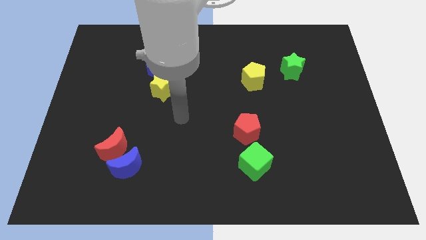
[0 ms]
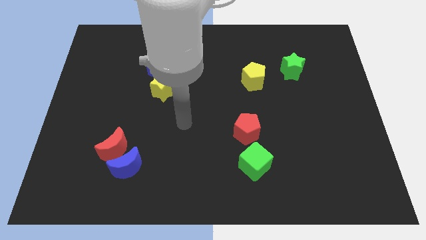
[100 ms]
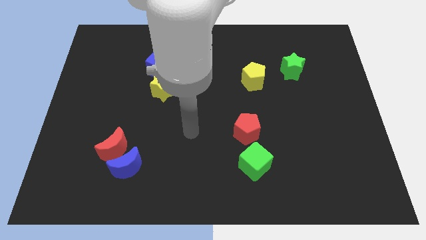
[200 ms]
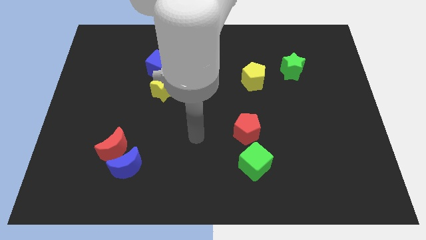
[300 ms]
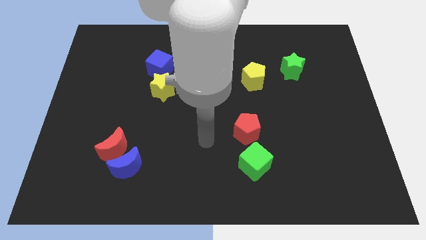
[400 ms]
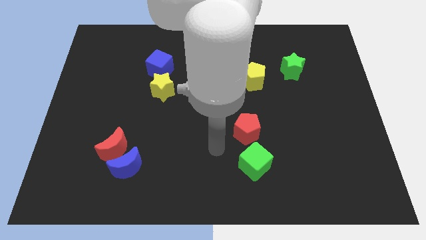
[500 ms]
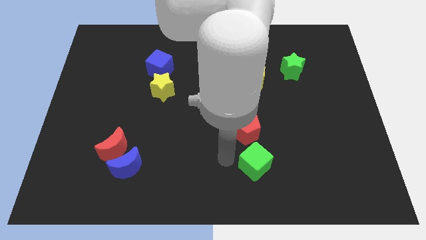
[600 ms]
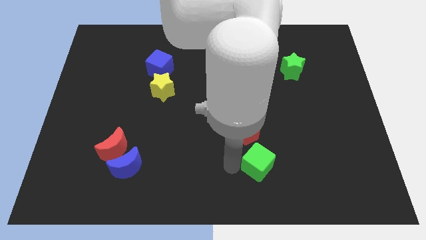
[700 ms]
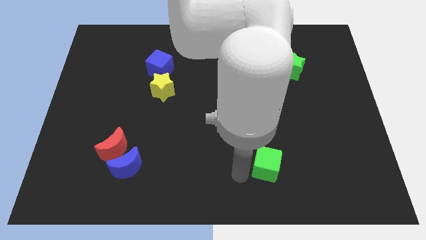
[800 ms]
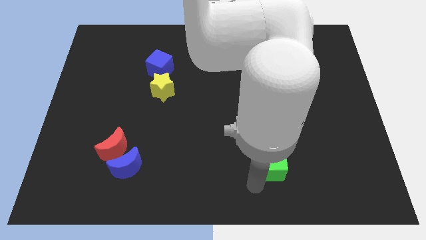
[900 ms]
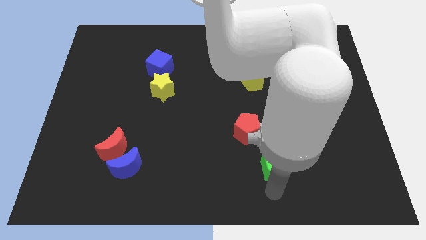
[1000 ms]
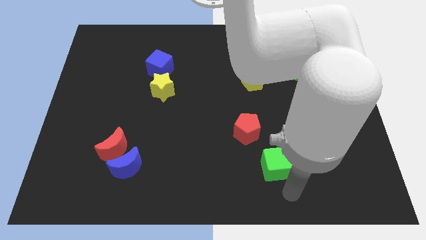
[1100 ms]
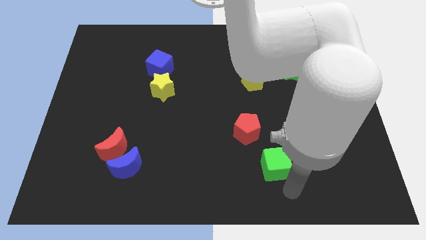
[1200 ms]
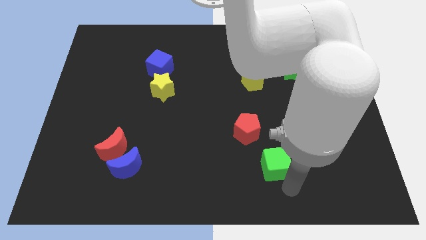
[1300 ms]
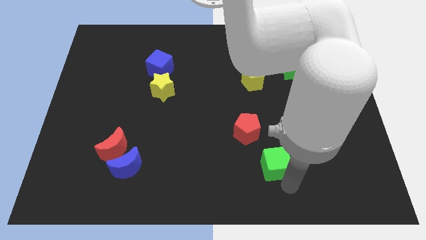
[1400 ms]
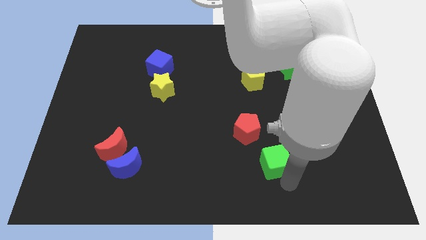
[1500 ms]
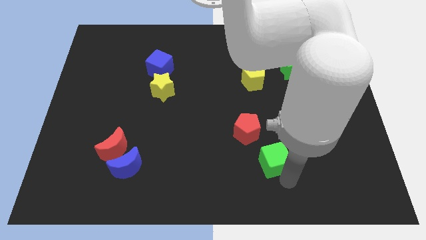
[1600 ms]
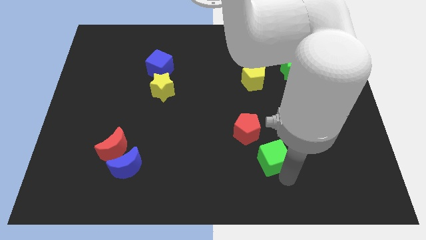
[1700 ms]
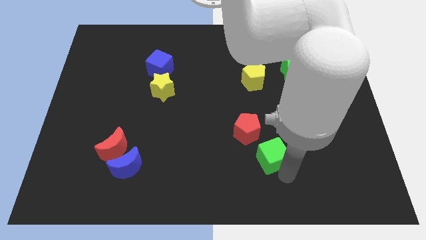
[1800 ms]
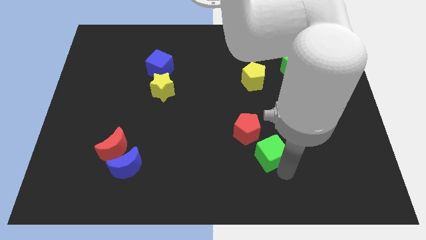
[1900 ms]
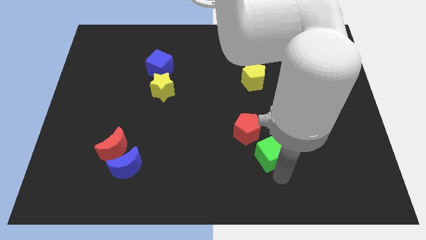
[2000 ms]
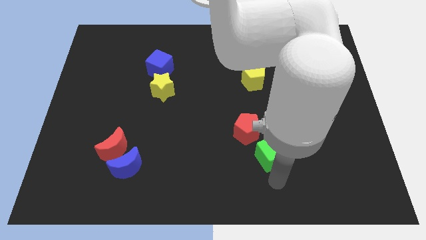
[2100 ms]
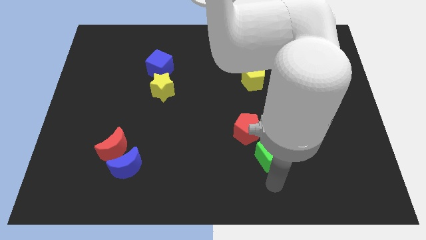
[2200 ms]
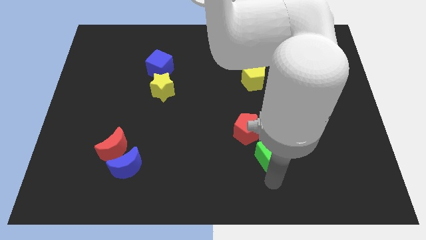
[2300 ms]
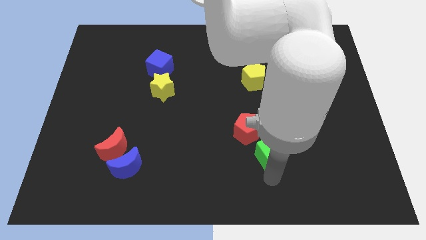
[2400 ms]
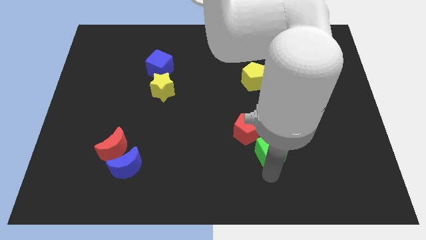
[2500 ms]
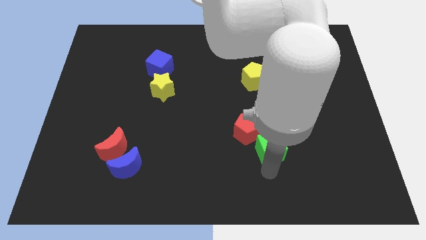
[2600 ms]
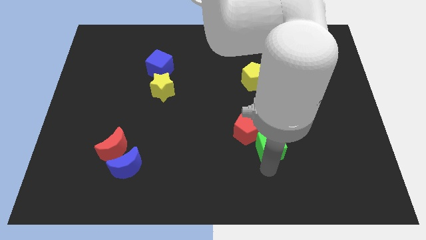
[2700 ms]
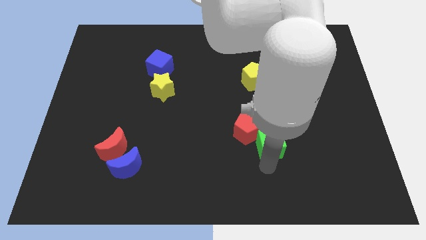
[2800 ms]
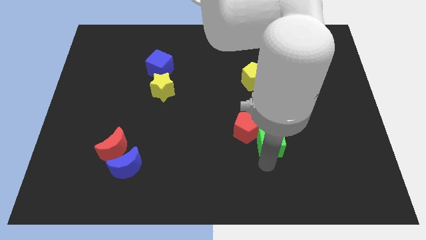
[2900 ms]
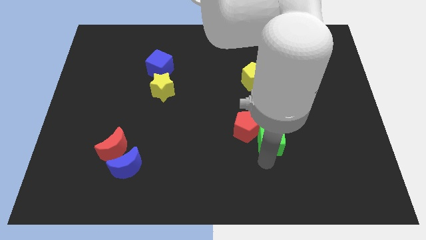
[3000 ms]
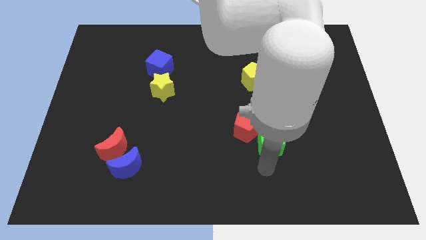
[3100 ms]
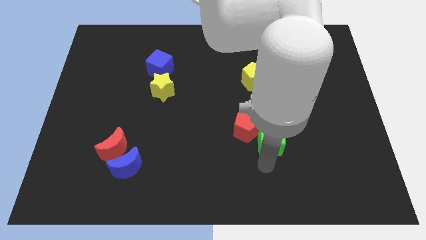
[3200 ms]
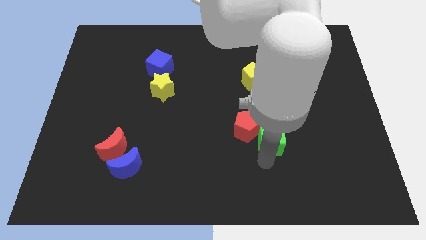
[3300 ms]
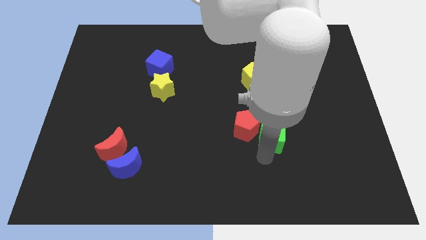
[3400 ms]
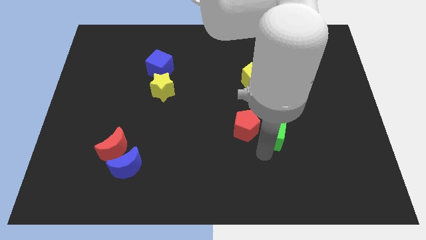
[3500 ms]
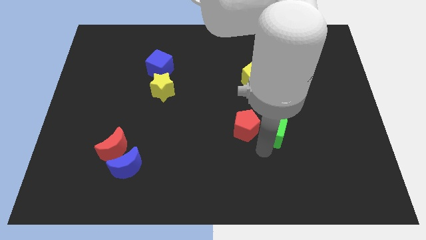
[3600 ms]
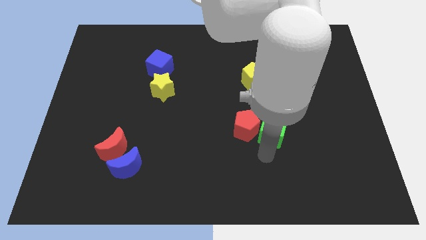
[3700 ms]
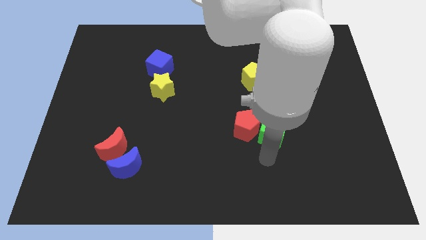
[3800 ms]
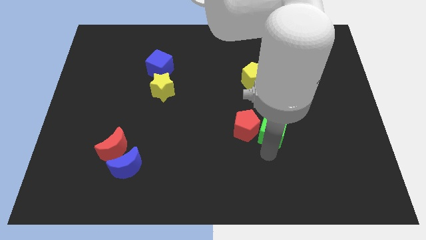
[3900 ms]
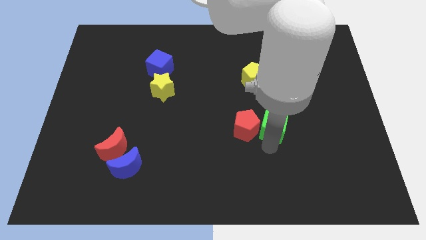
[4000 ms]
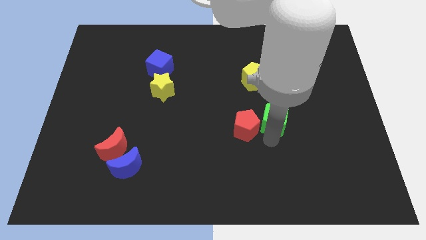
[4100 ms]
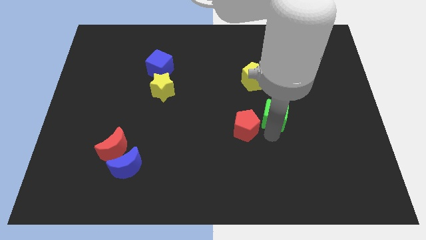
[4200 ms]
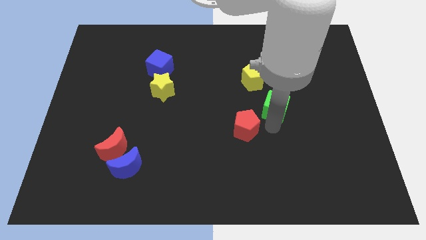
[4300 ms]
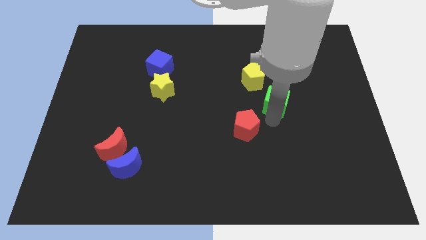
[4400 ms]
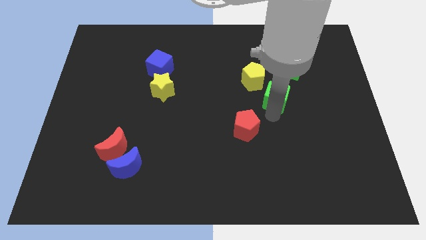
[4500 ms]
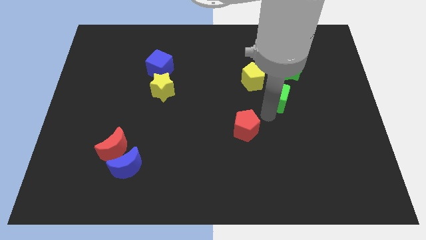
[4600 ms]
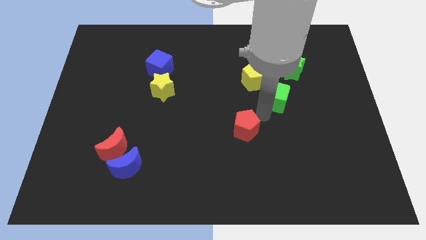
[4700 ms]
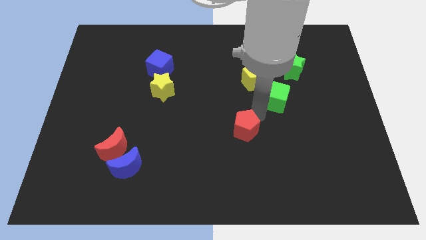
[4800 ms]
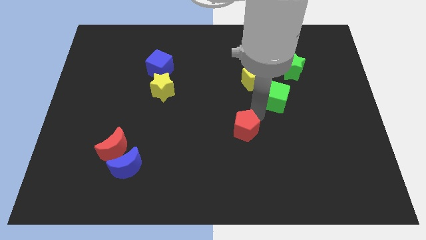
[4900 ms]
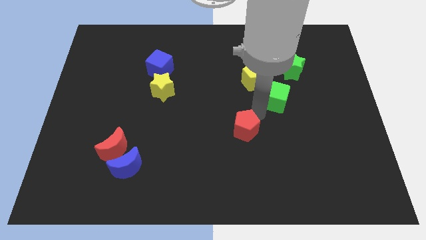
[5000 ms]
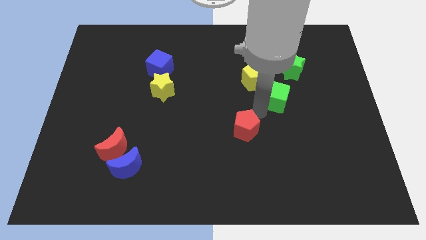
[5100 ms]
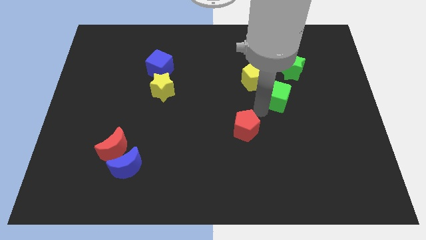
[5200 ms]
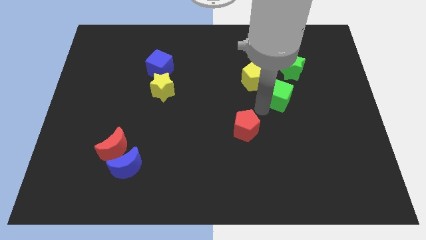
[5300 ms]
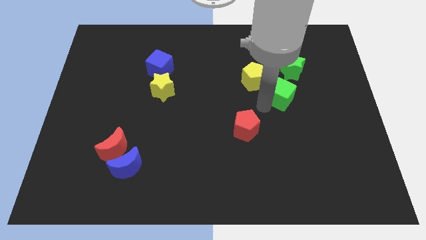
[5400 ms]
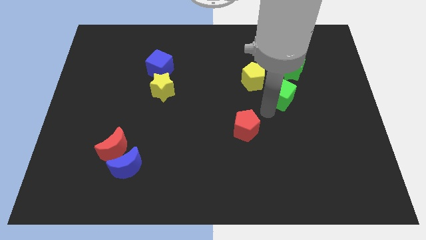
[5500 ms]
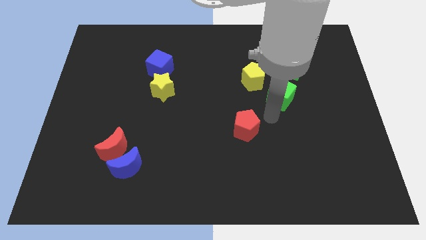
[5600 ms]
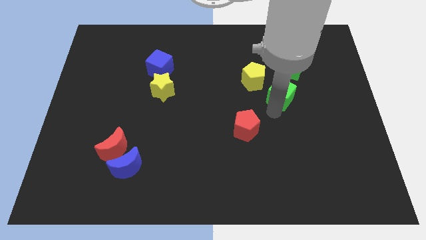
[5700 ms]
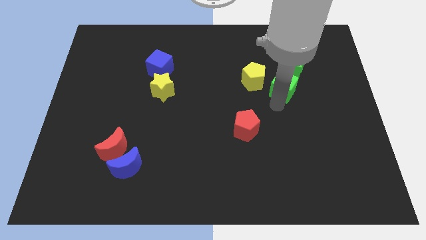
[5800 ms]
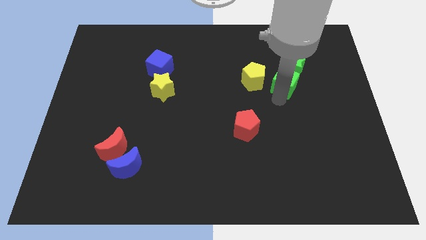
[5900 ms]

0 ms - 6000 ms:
put the green cube next to the green star

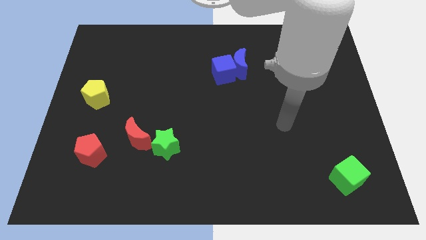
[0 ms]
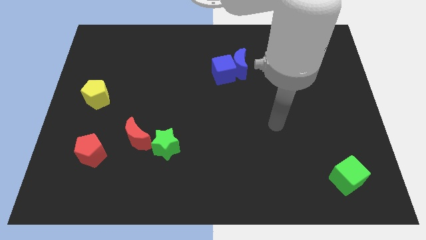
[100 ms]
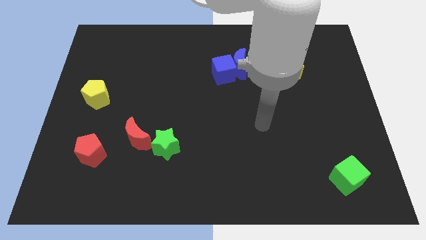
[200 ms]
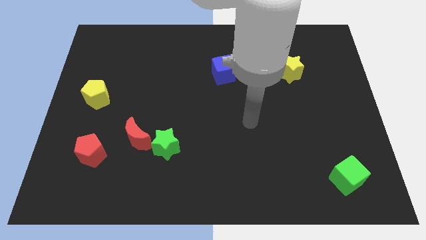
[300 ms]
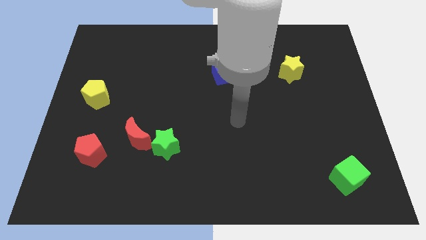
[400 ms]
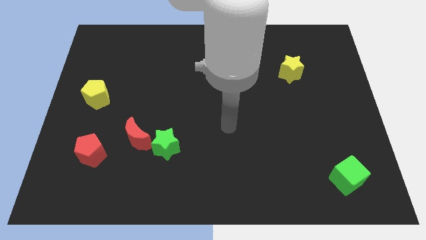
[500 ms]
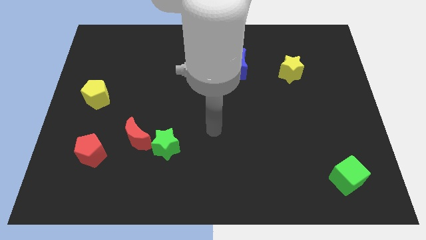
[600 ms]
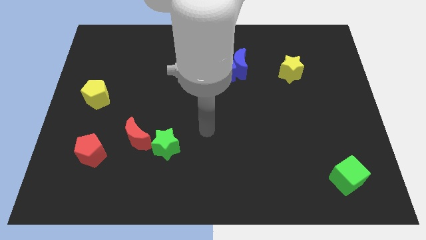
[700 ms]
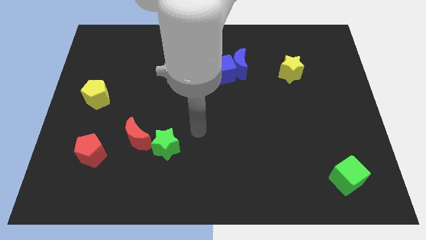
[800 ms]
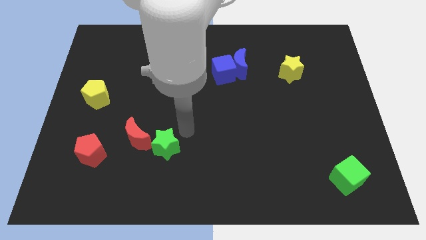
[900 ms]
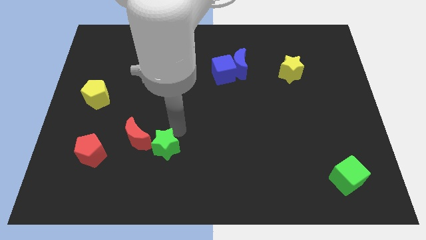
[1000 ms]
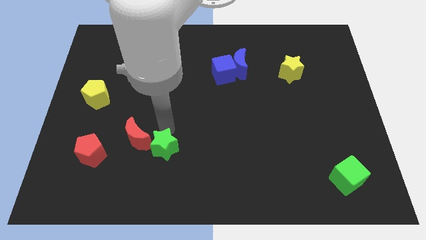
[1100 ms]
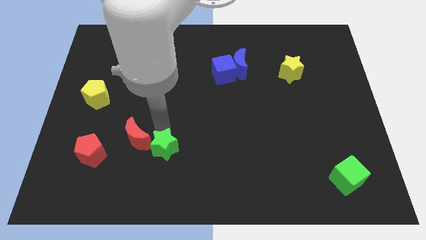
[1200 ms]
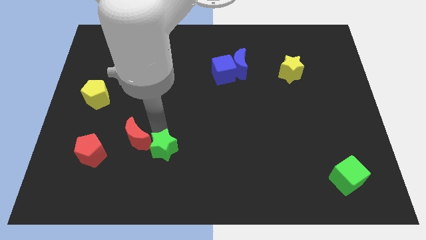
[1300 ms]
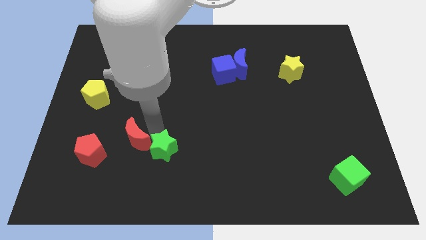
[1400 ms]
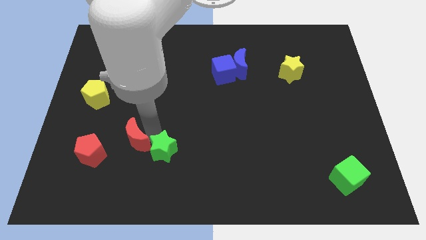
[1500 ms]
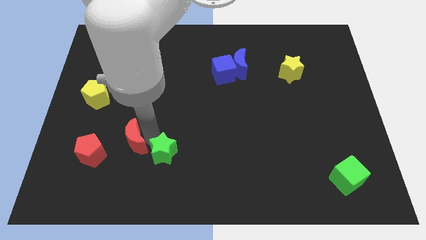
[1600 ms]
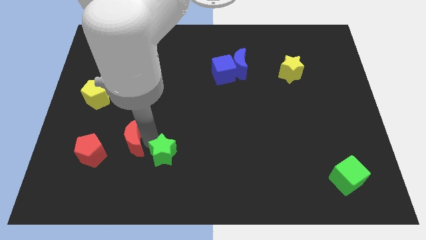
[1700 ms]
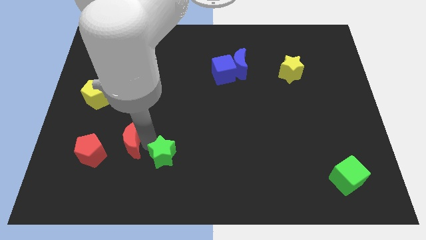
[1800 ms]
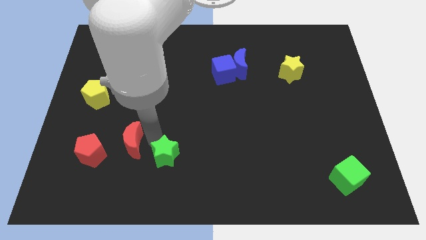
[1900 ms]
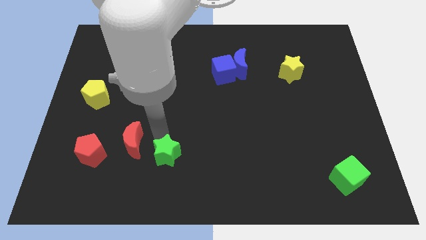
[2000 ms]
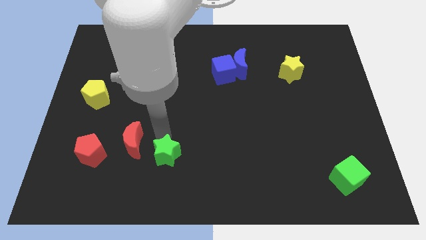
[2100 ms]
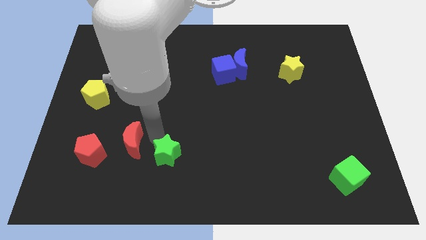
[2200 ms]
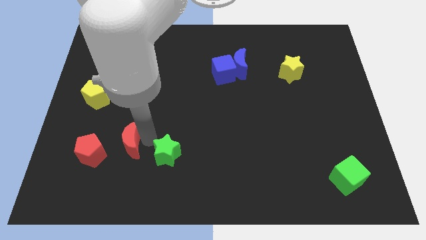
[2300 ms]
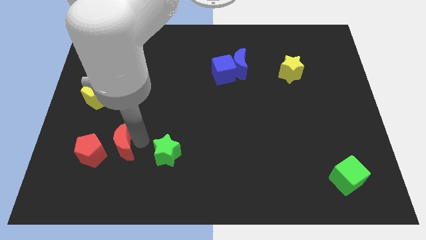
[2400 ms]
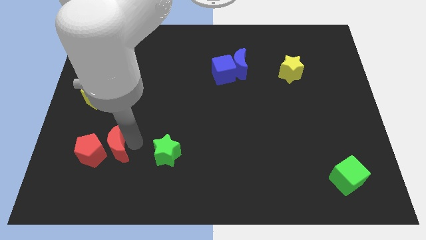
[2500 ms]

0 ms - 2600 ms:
push the red moon towards the red pentagon
